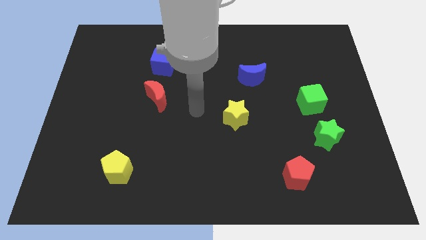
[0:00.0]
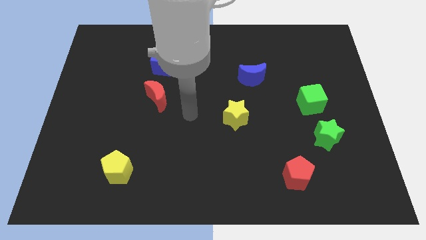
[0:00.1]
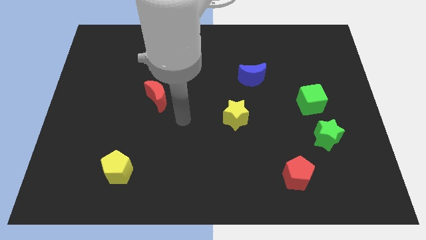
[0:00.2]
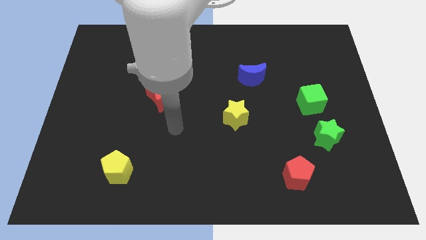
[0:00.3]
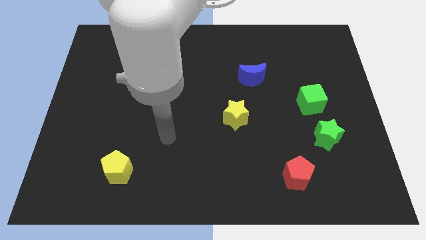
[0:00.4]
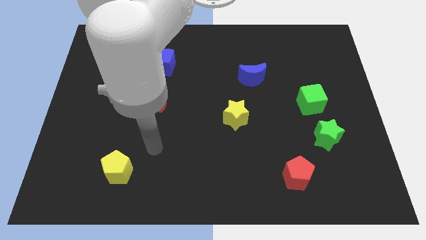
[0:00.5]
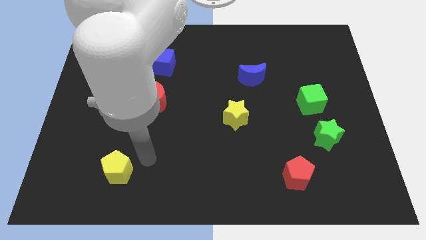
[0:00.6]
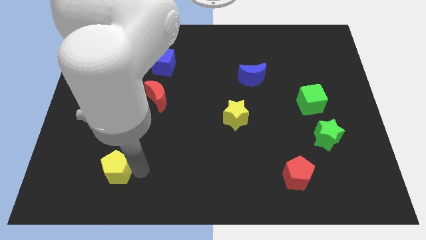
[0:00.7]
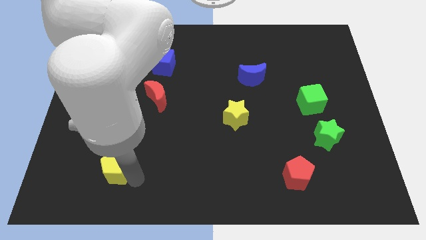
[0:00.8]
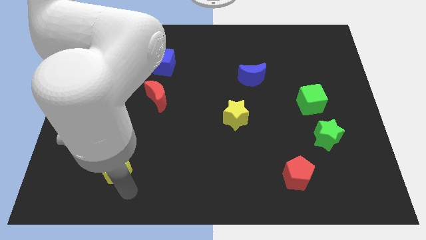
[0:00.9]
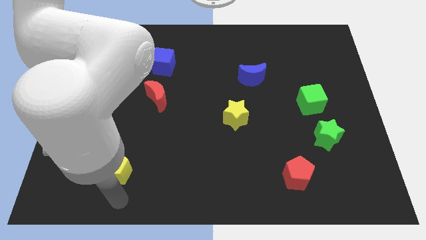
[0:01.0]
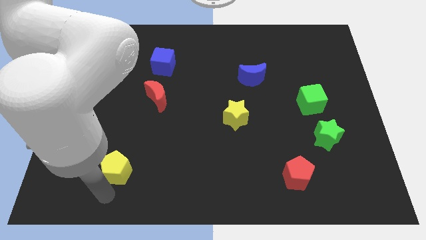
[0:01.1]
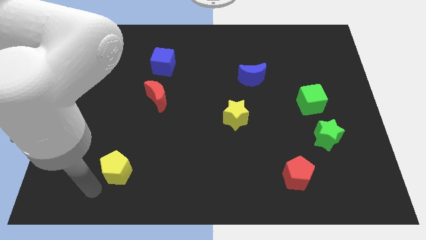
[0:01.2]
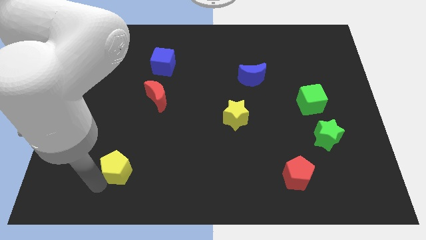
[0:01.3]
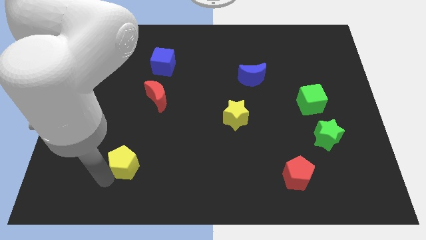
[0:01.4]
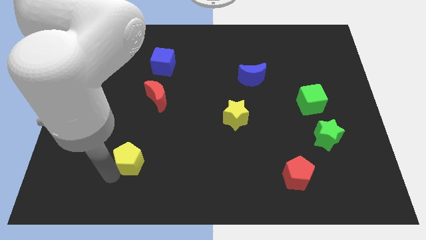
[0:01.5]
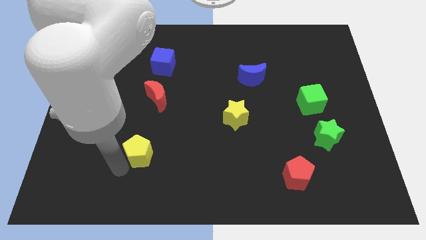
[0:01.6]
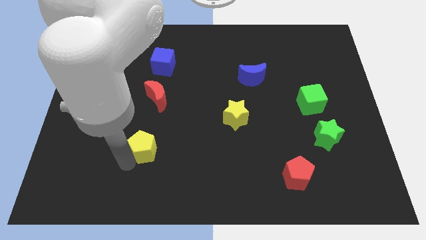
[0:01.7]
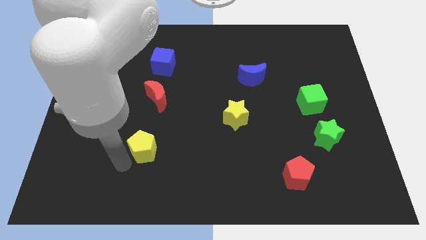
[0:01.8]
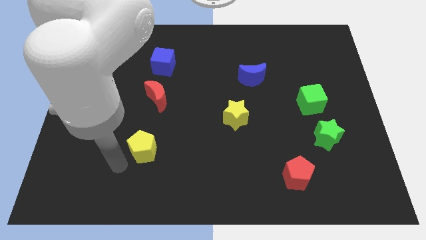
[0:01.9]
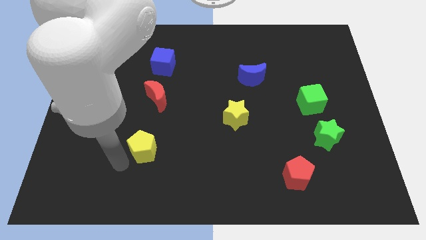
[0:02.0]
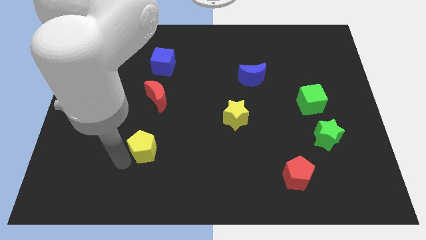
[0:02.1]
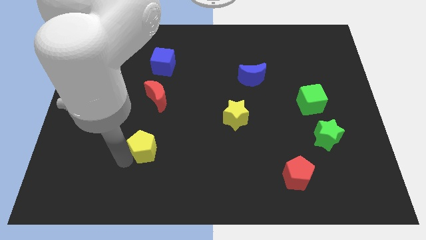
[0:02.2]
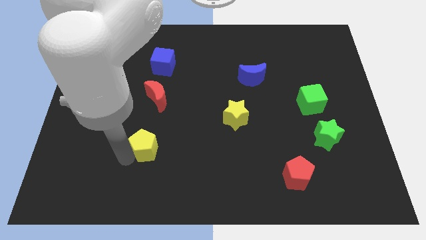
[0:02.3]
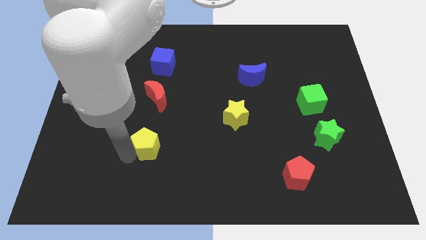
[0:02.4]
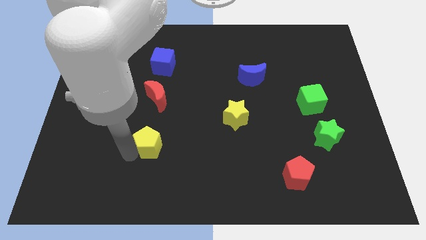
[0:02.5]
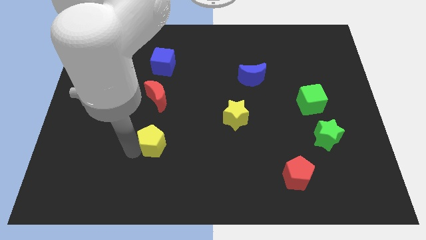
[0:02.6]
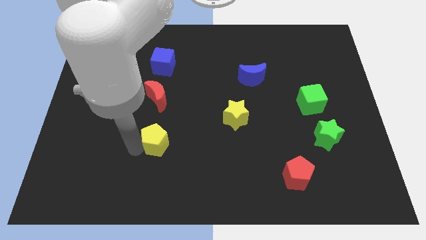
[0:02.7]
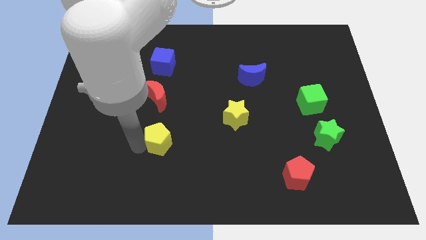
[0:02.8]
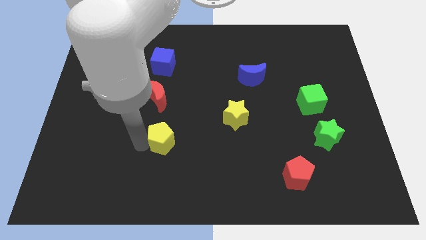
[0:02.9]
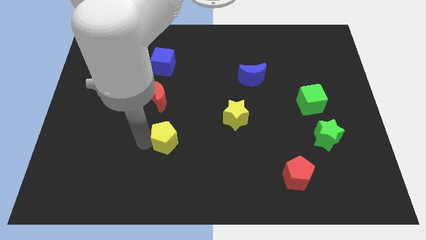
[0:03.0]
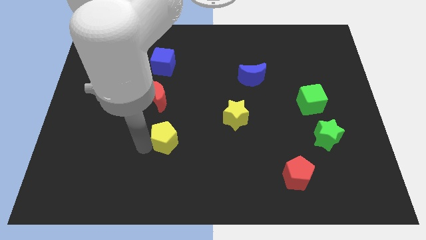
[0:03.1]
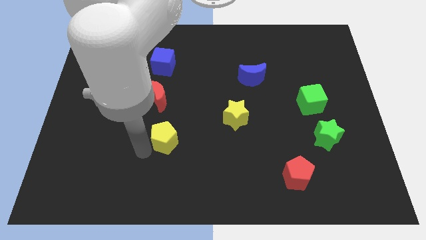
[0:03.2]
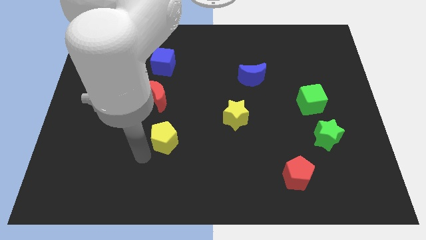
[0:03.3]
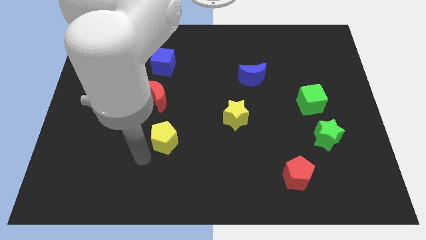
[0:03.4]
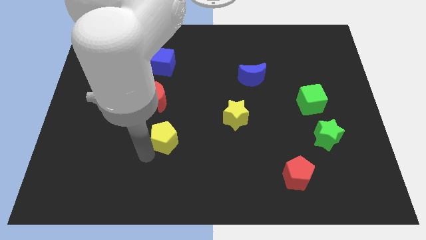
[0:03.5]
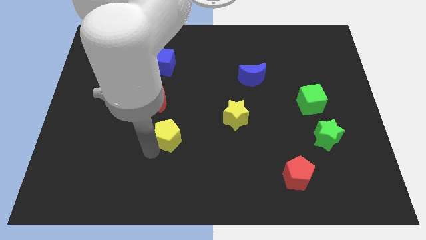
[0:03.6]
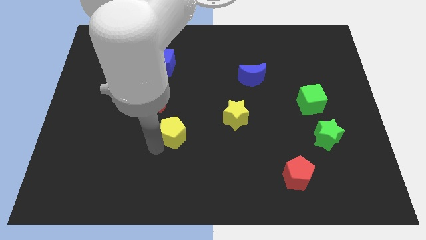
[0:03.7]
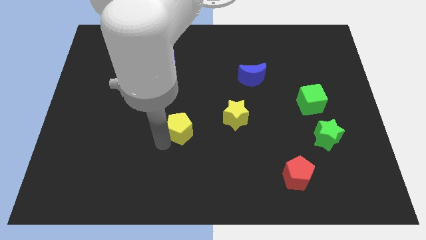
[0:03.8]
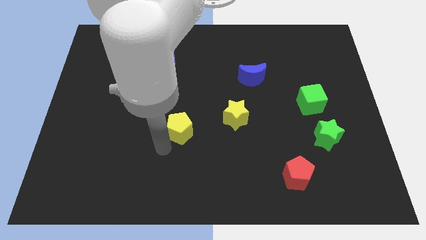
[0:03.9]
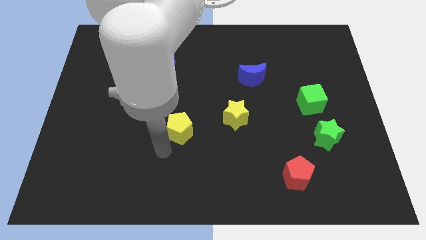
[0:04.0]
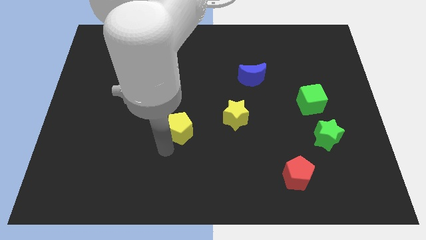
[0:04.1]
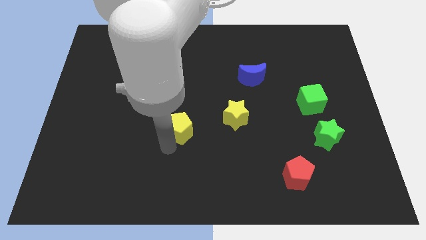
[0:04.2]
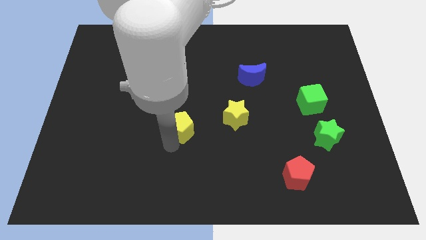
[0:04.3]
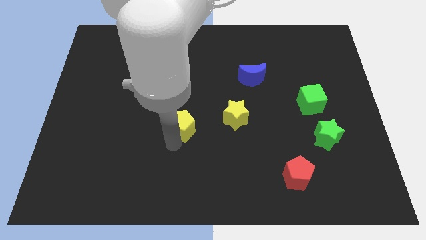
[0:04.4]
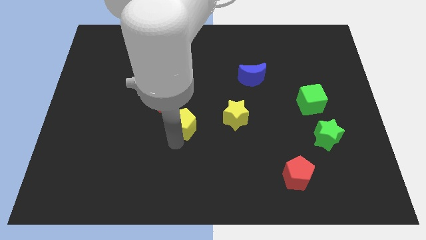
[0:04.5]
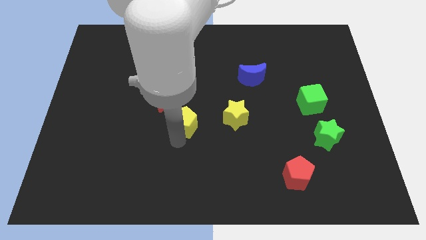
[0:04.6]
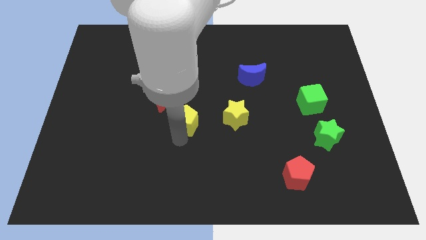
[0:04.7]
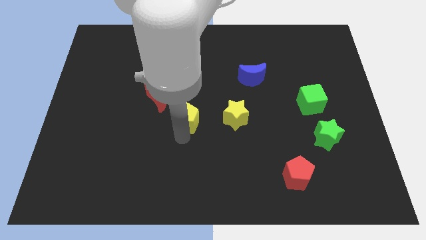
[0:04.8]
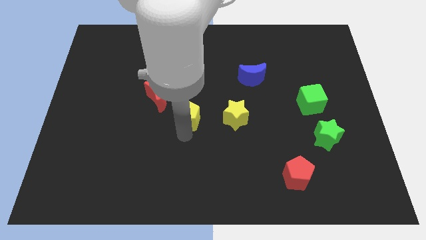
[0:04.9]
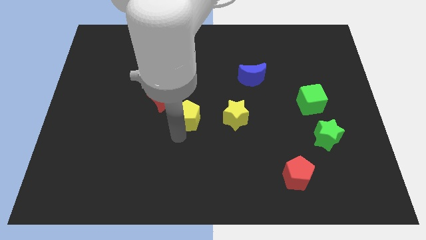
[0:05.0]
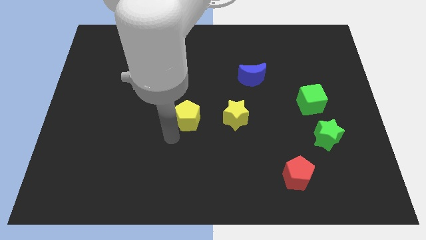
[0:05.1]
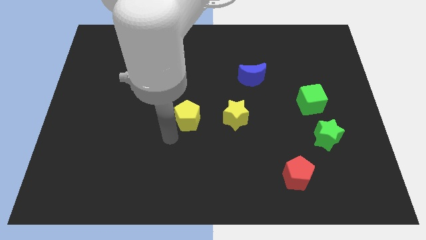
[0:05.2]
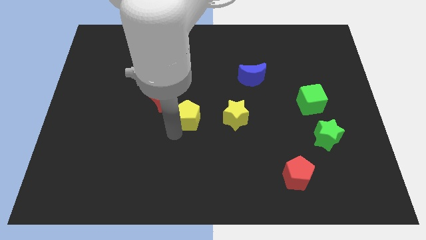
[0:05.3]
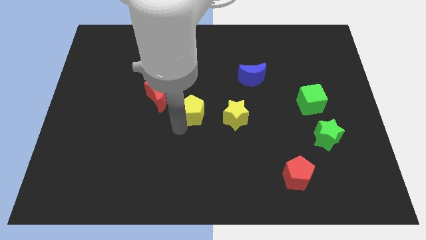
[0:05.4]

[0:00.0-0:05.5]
move the yellow pentagon upwards and to the right

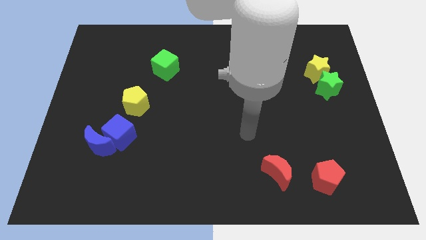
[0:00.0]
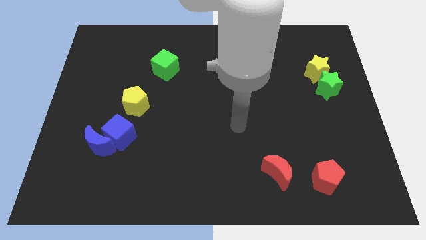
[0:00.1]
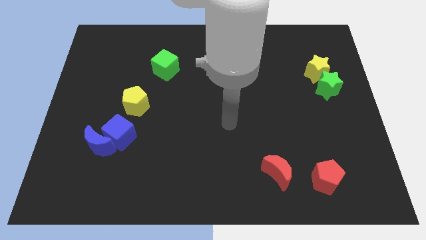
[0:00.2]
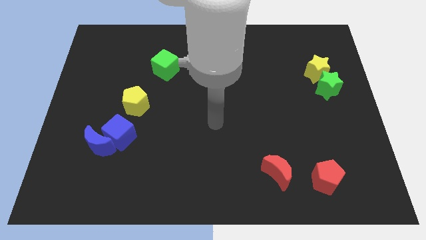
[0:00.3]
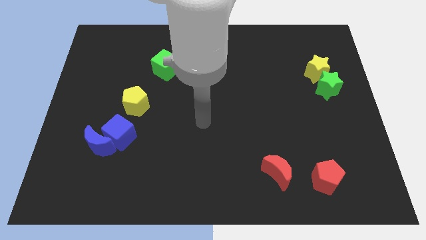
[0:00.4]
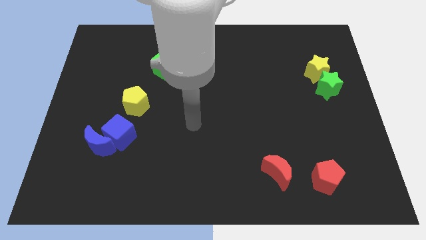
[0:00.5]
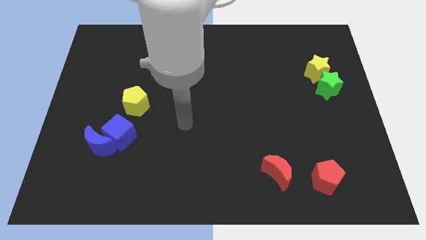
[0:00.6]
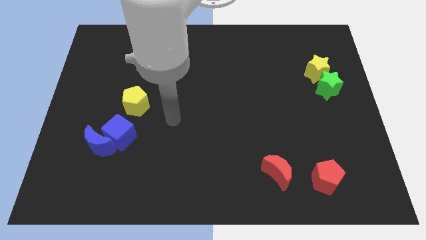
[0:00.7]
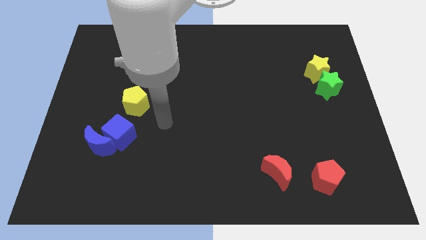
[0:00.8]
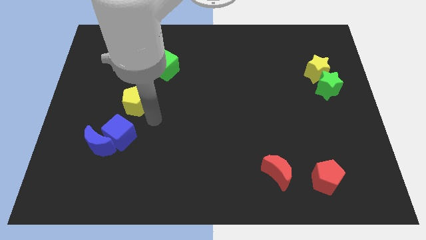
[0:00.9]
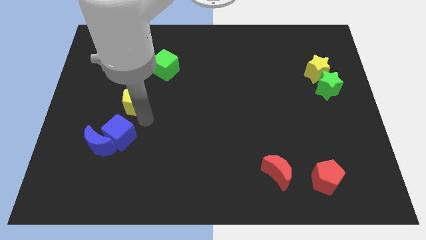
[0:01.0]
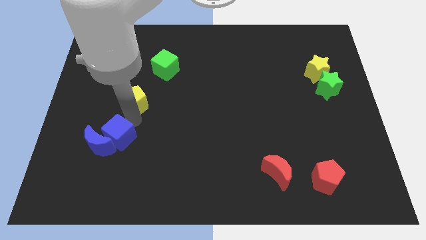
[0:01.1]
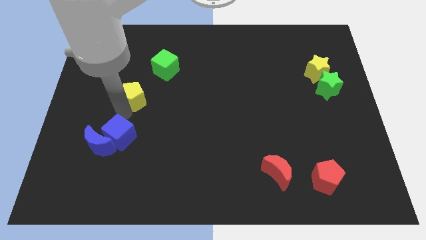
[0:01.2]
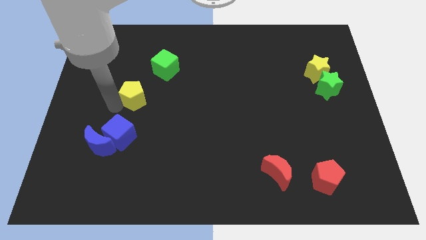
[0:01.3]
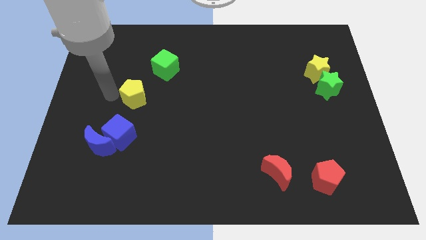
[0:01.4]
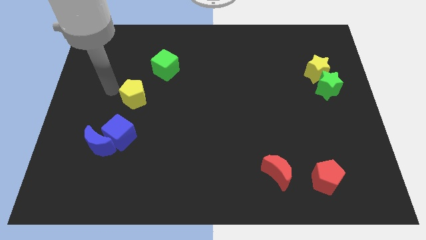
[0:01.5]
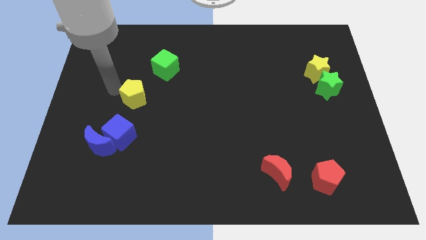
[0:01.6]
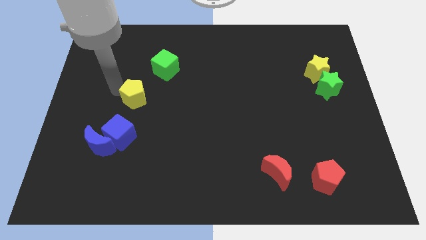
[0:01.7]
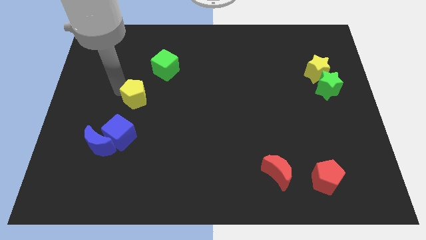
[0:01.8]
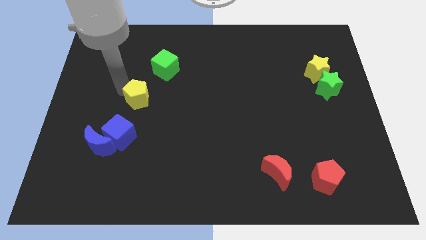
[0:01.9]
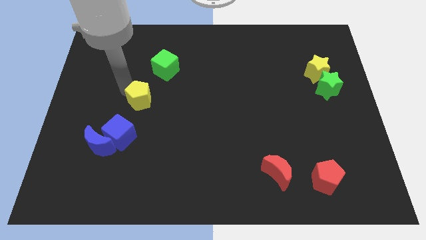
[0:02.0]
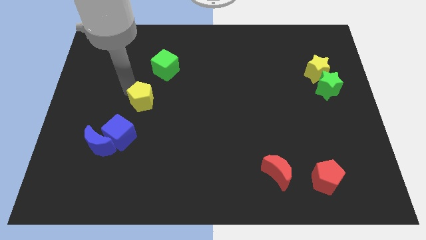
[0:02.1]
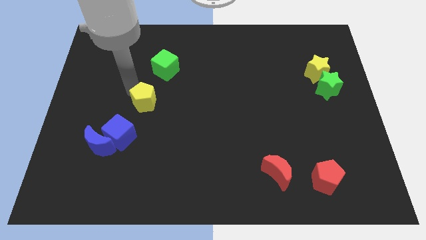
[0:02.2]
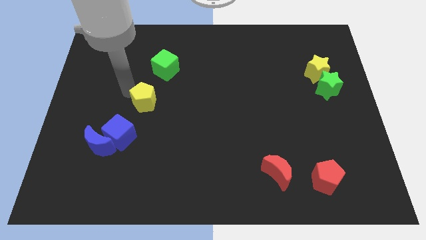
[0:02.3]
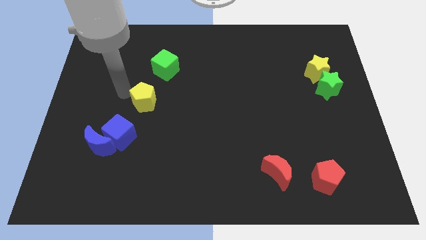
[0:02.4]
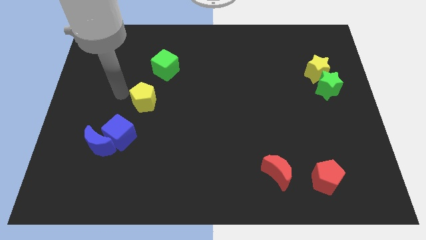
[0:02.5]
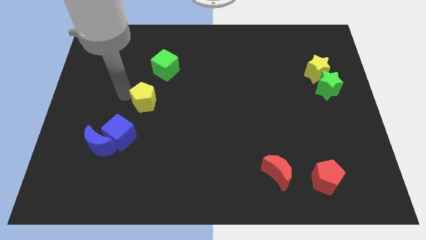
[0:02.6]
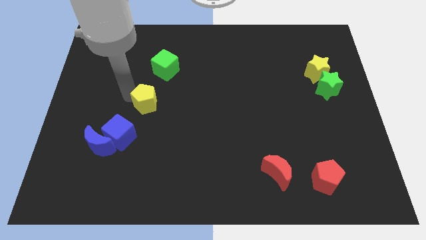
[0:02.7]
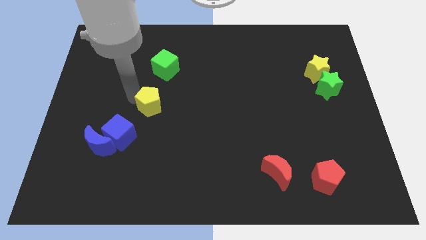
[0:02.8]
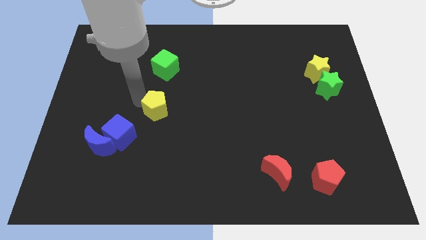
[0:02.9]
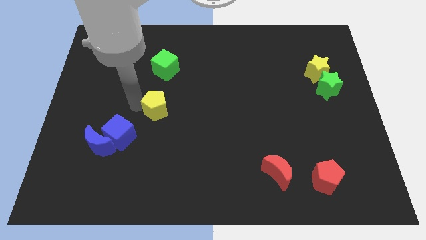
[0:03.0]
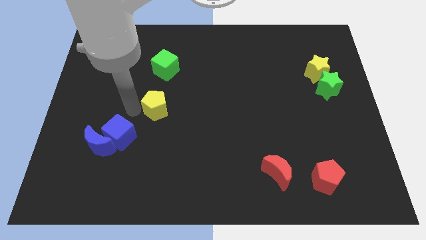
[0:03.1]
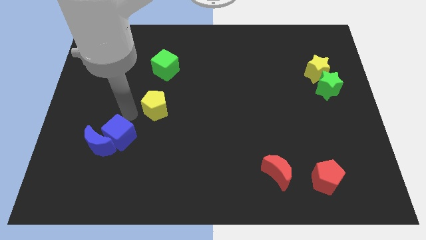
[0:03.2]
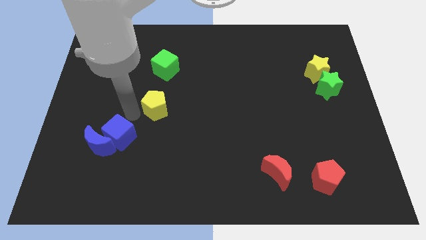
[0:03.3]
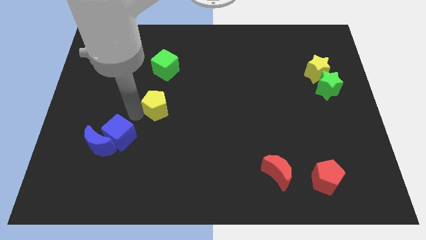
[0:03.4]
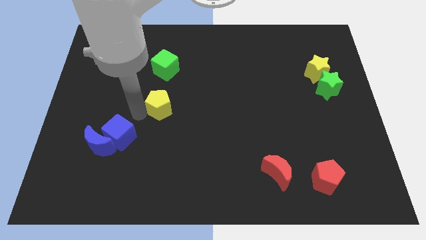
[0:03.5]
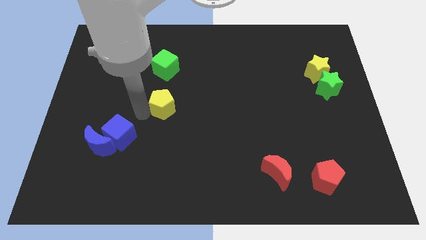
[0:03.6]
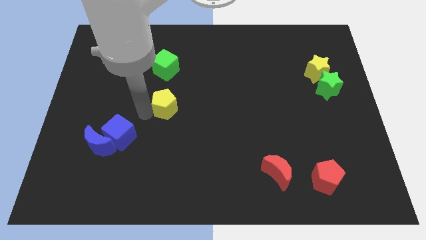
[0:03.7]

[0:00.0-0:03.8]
move the yellow pentagon right a bit
